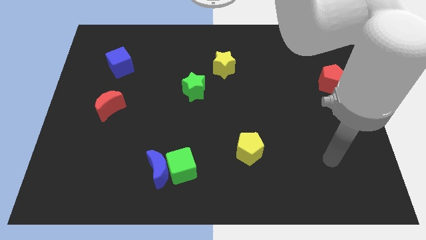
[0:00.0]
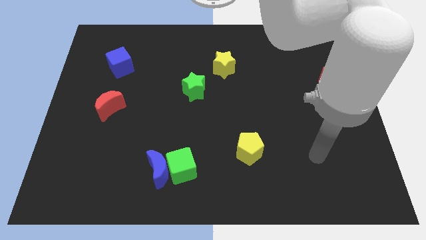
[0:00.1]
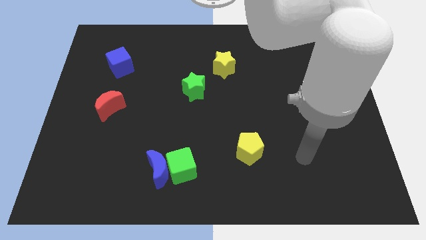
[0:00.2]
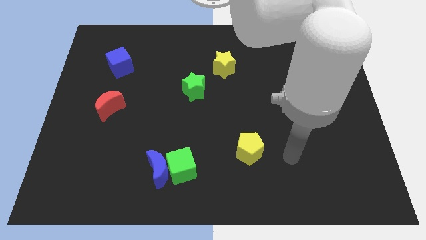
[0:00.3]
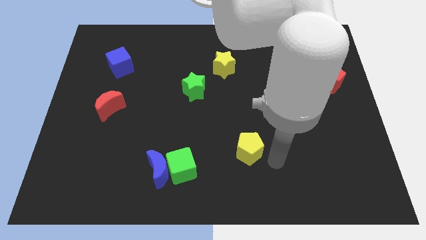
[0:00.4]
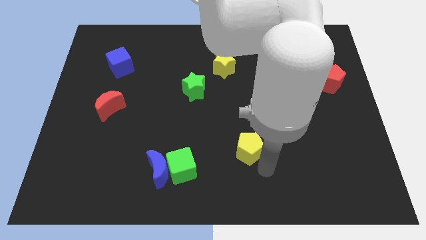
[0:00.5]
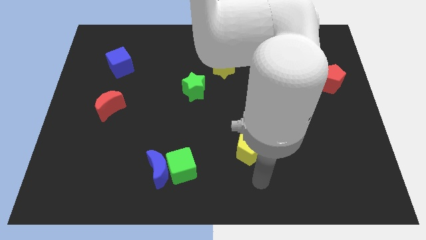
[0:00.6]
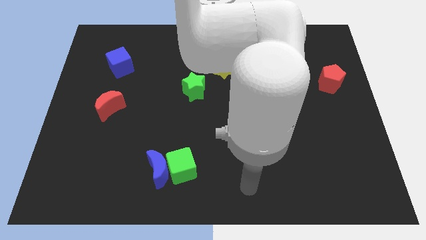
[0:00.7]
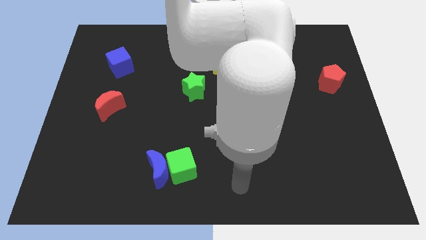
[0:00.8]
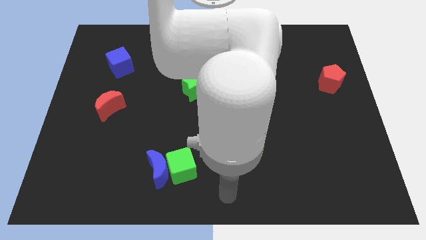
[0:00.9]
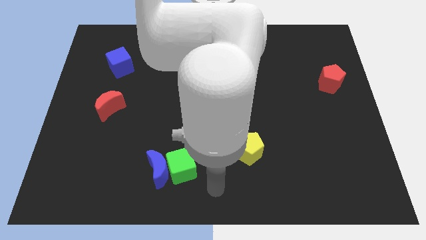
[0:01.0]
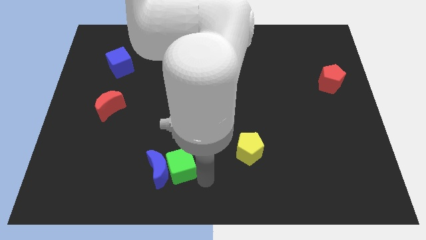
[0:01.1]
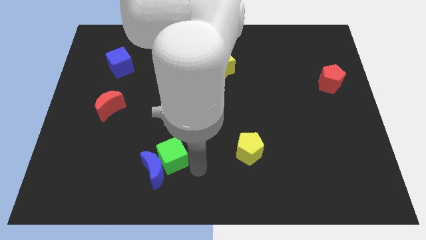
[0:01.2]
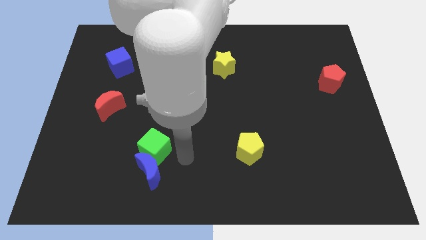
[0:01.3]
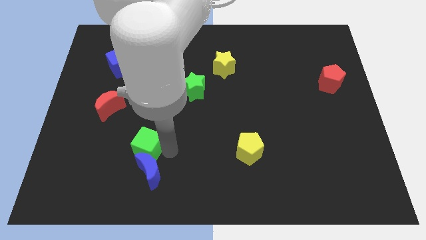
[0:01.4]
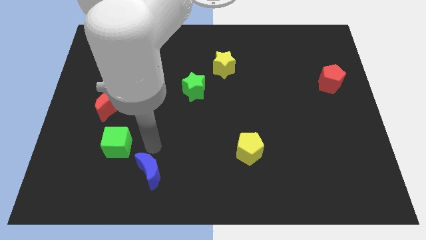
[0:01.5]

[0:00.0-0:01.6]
pull the blue moon apart from the green cube

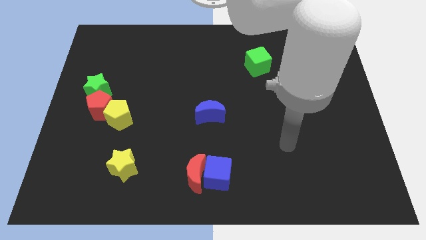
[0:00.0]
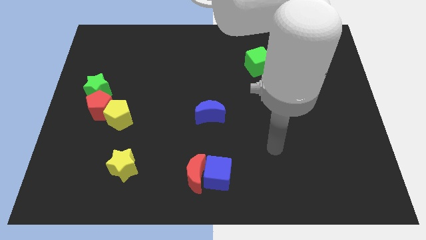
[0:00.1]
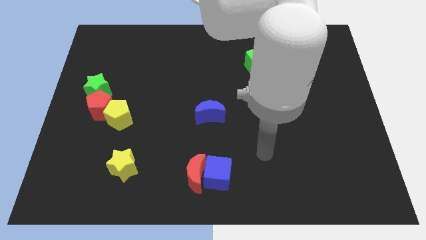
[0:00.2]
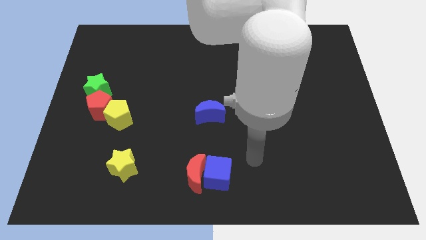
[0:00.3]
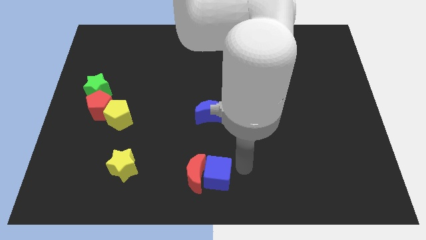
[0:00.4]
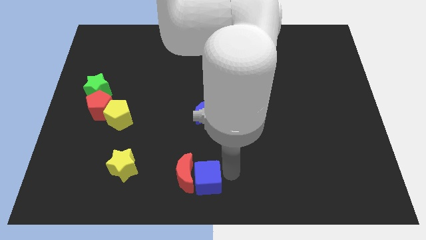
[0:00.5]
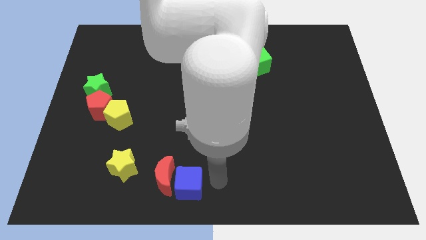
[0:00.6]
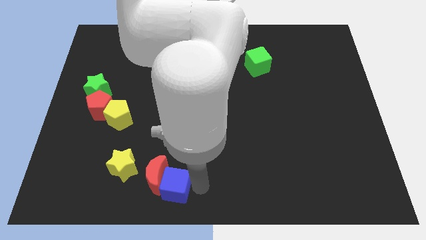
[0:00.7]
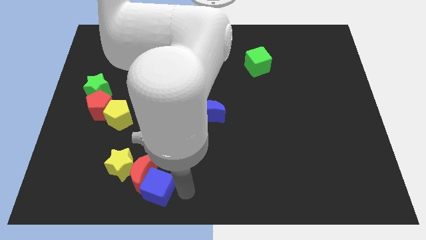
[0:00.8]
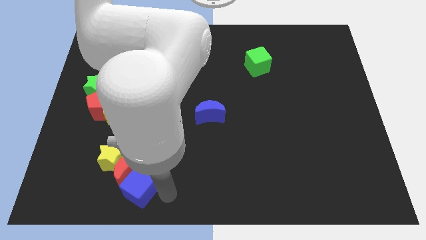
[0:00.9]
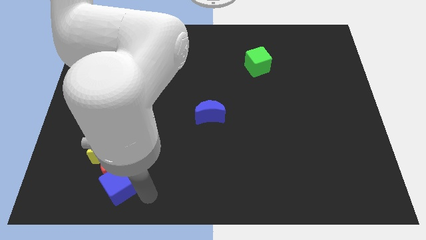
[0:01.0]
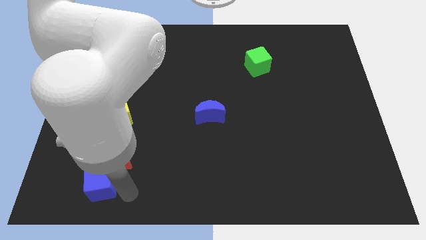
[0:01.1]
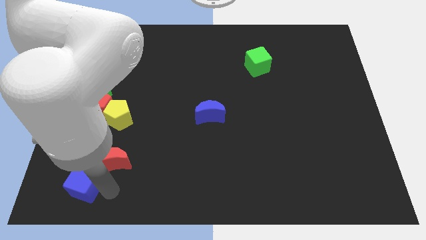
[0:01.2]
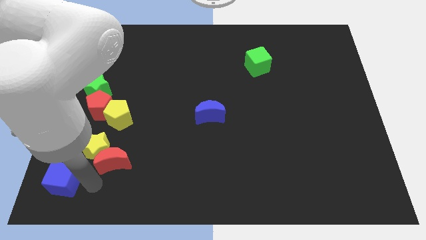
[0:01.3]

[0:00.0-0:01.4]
separate the red moon from the blue cube

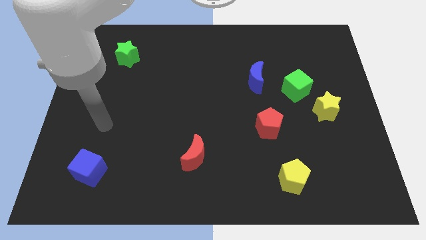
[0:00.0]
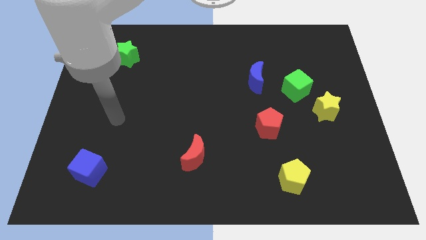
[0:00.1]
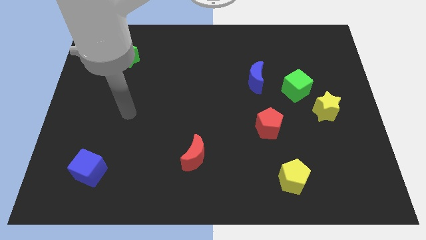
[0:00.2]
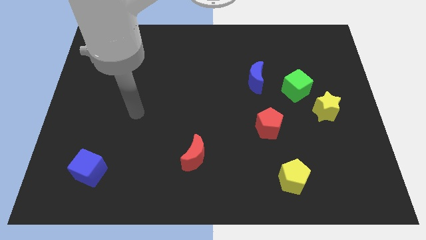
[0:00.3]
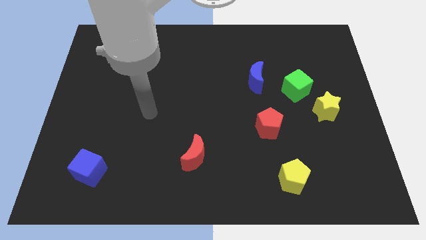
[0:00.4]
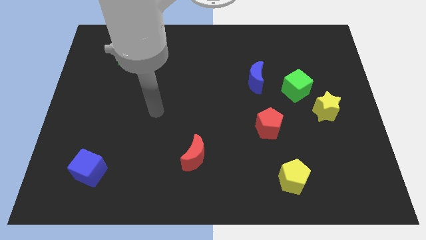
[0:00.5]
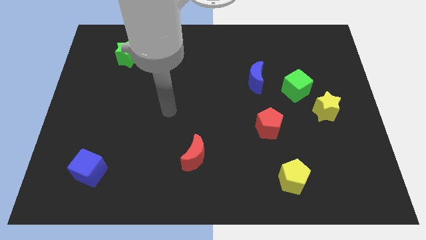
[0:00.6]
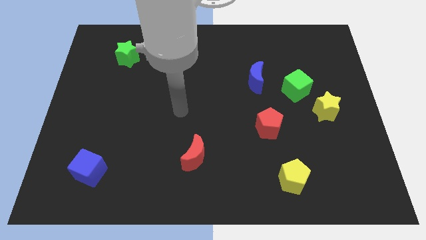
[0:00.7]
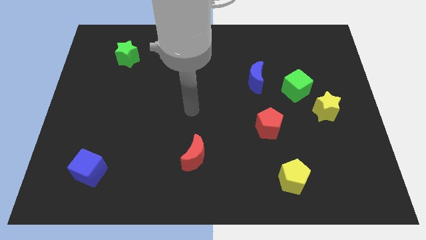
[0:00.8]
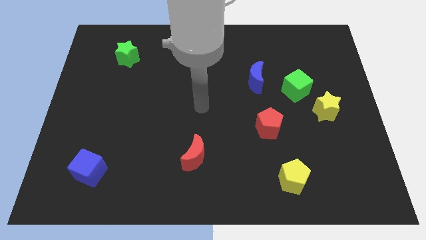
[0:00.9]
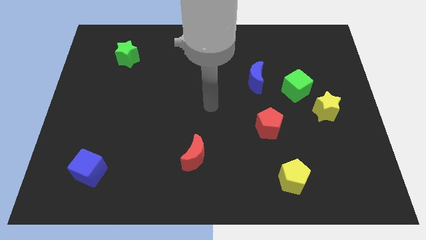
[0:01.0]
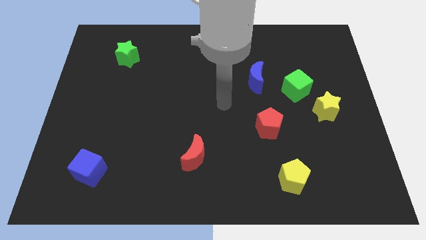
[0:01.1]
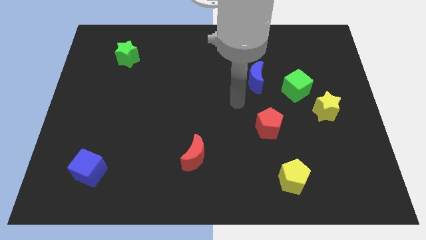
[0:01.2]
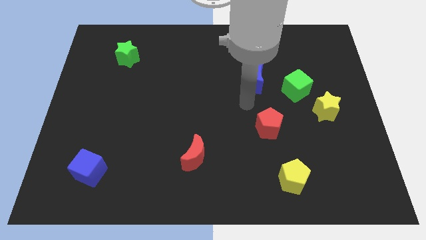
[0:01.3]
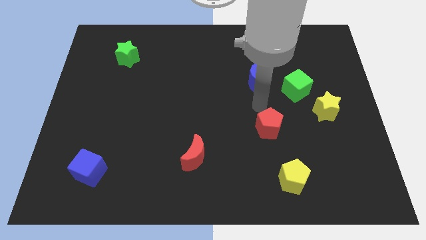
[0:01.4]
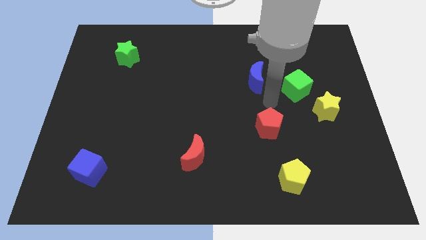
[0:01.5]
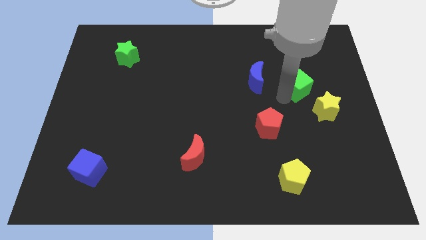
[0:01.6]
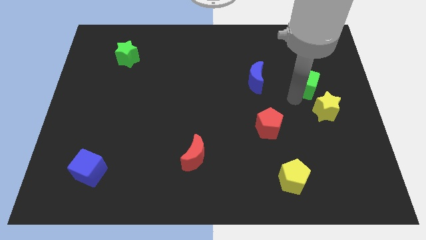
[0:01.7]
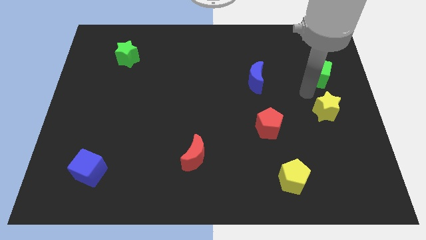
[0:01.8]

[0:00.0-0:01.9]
pull the yellow star apart from the green cube

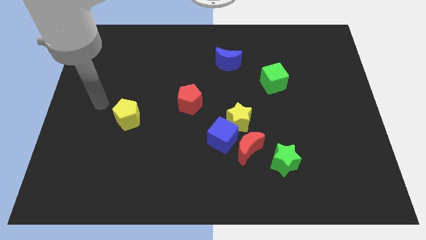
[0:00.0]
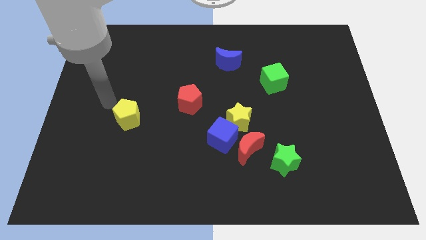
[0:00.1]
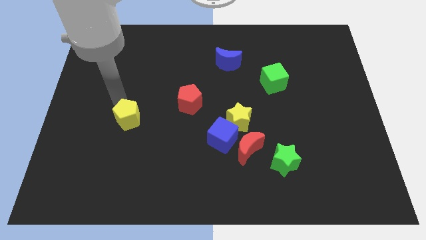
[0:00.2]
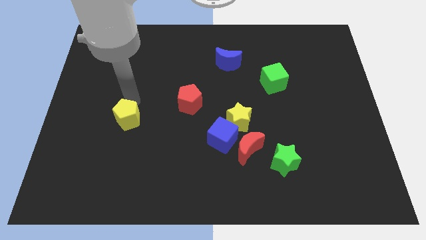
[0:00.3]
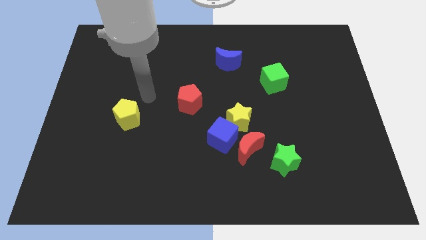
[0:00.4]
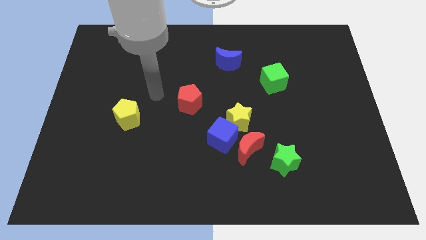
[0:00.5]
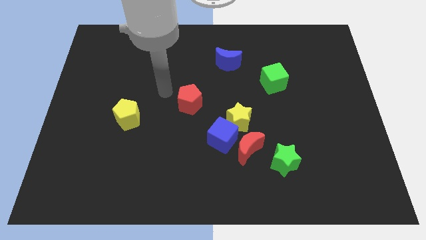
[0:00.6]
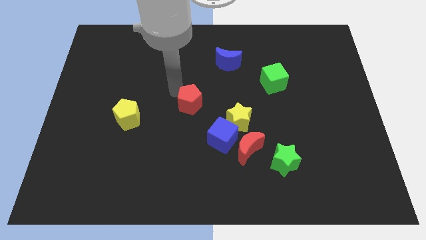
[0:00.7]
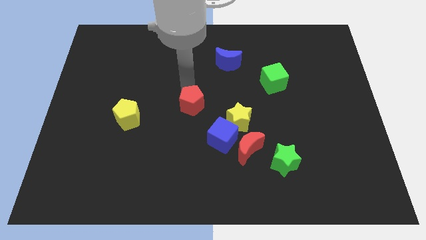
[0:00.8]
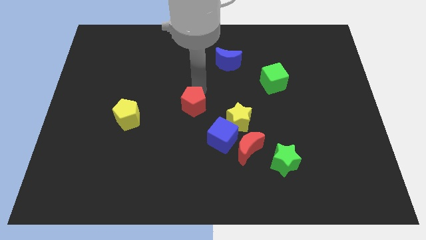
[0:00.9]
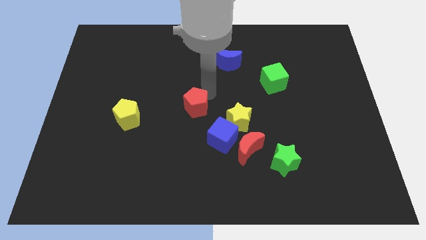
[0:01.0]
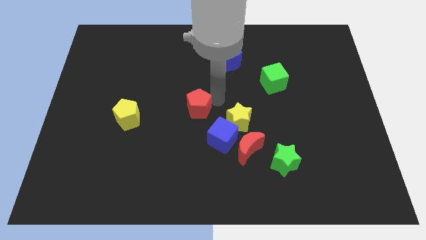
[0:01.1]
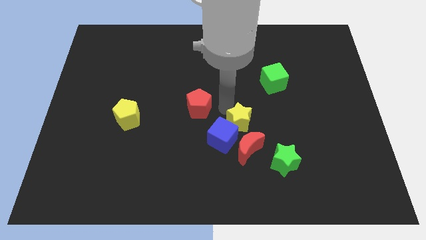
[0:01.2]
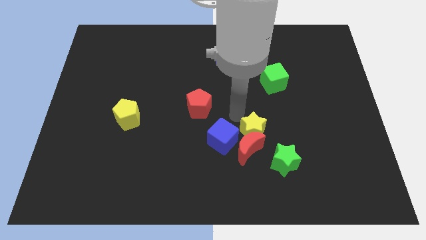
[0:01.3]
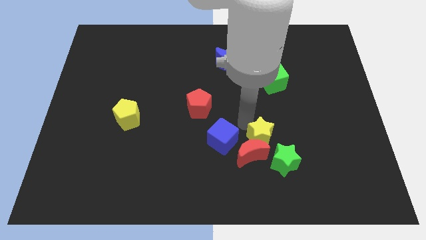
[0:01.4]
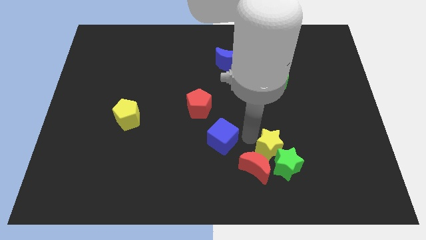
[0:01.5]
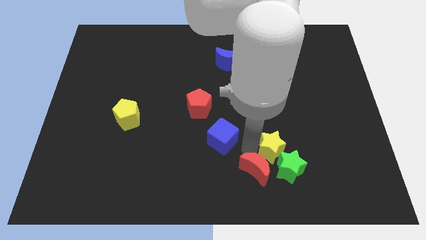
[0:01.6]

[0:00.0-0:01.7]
pull the blue cube apart from the yellow star and red moon

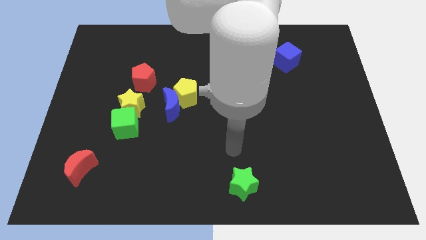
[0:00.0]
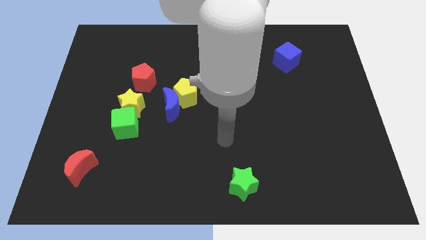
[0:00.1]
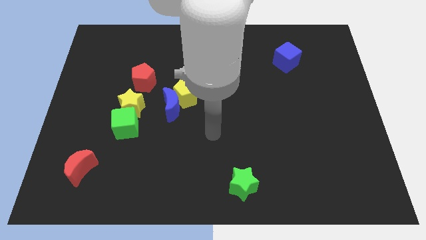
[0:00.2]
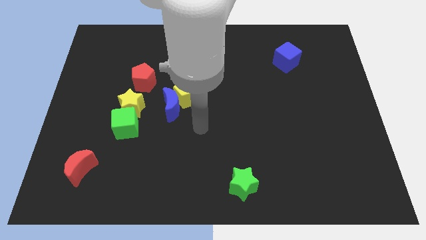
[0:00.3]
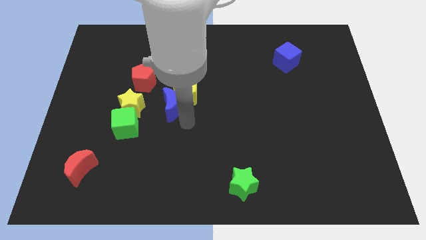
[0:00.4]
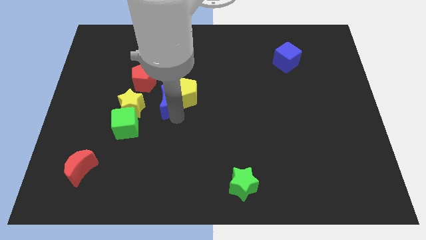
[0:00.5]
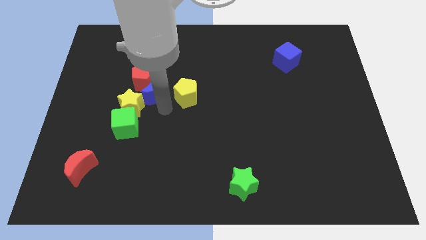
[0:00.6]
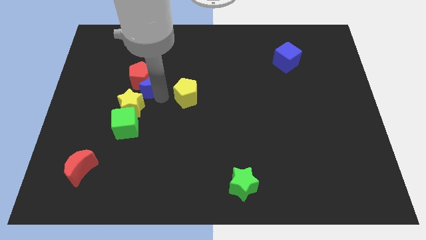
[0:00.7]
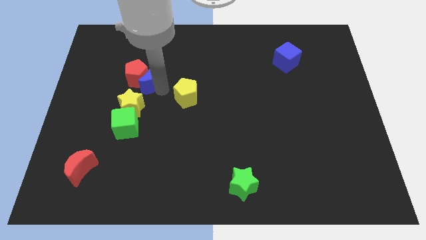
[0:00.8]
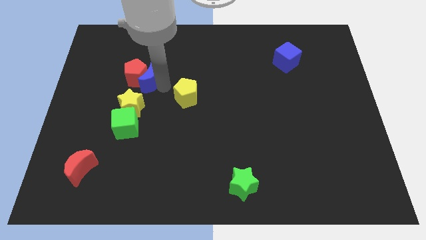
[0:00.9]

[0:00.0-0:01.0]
move the yellow pentagon away from the blue moon

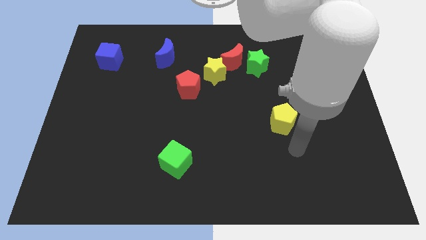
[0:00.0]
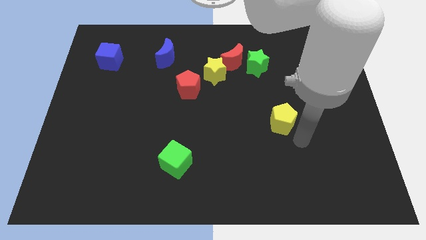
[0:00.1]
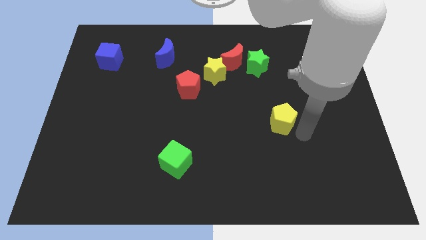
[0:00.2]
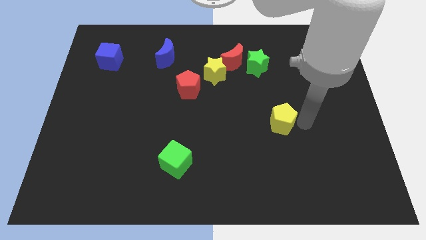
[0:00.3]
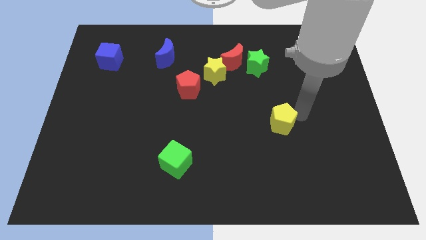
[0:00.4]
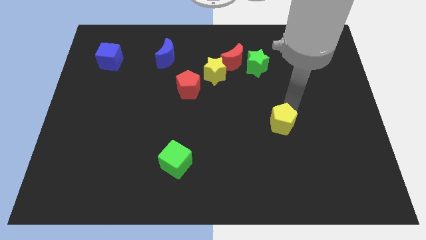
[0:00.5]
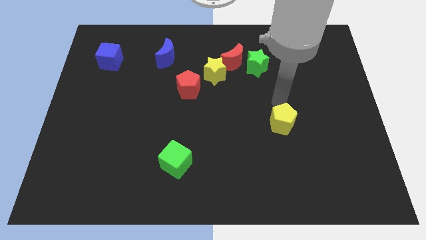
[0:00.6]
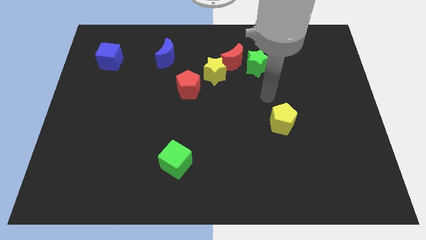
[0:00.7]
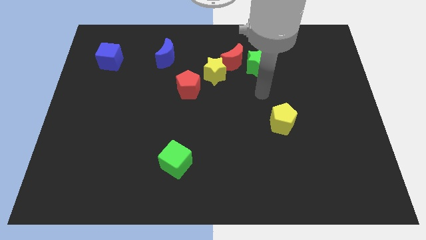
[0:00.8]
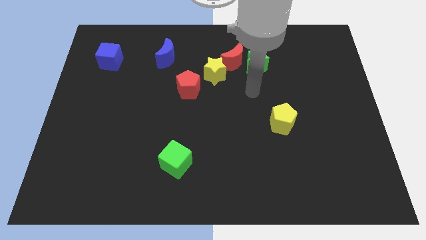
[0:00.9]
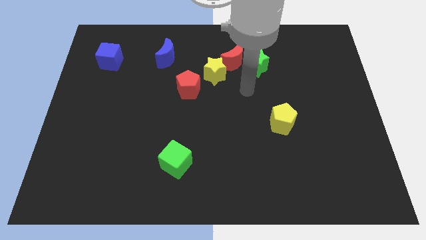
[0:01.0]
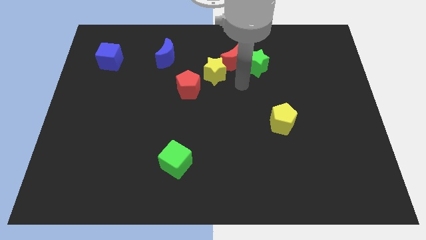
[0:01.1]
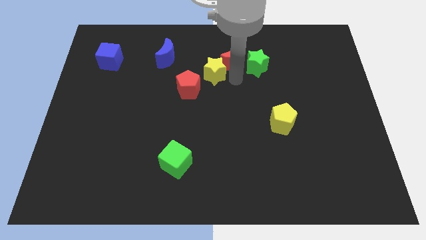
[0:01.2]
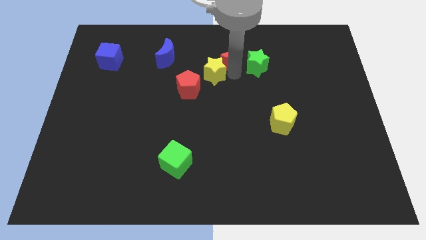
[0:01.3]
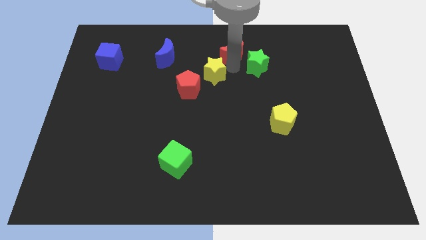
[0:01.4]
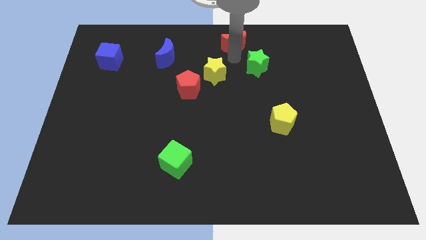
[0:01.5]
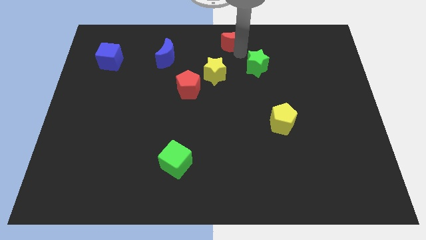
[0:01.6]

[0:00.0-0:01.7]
separate the green star from the red moon
